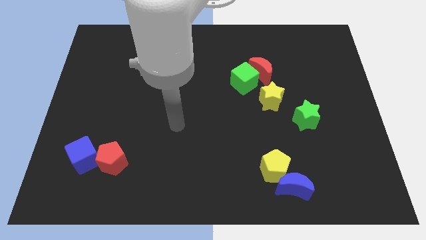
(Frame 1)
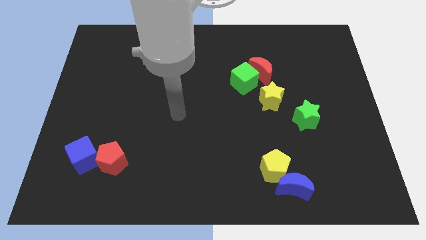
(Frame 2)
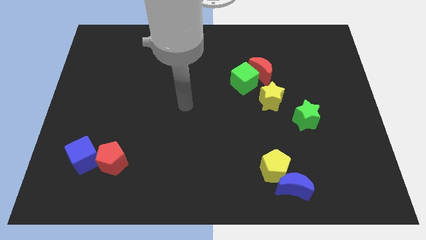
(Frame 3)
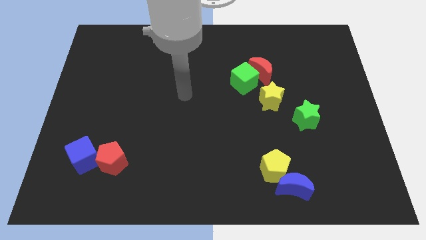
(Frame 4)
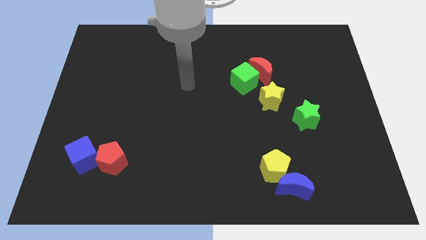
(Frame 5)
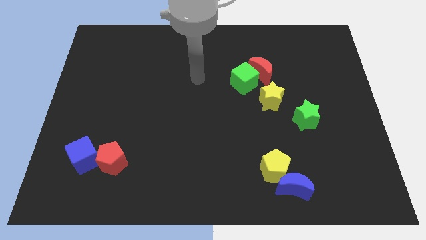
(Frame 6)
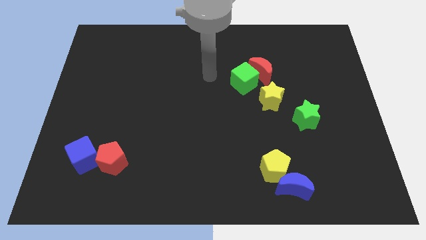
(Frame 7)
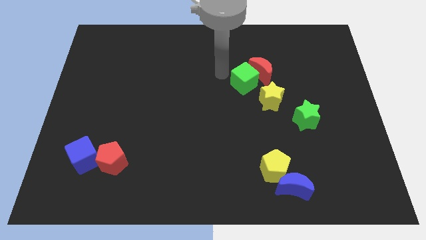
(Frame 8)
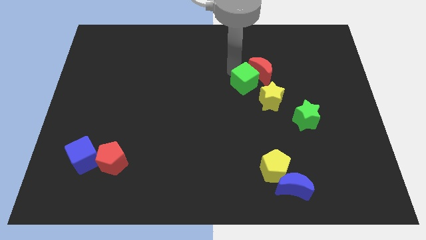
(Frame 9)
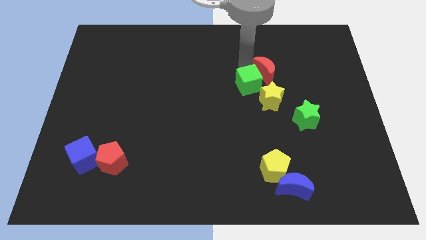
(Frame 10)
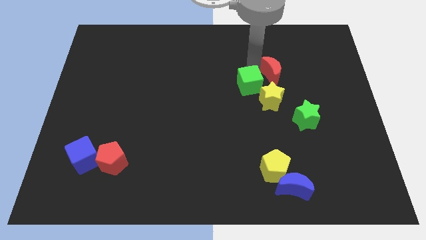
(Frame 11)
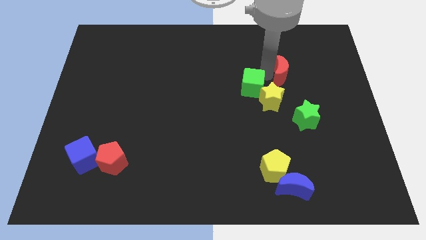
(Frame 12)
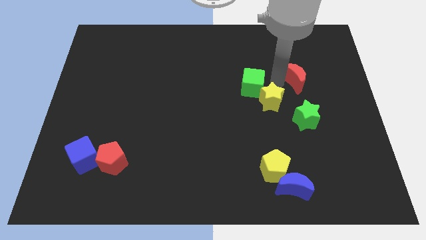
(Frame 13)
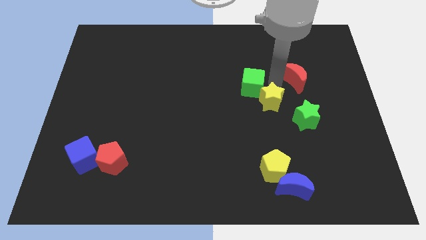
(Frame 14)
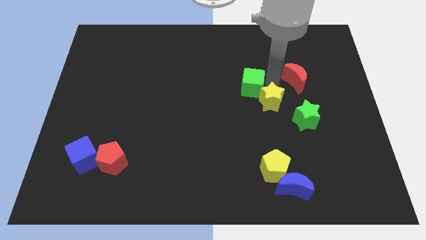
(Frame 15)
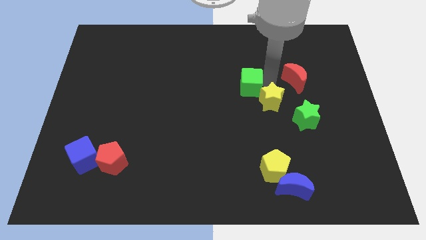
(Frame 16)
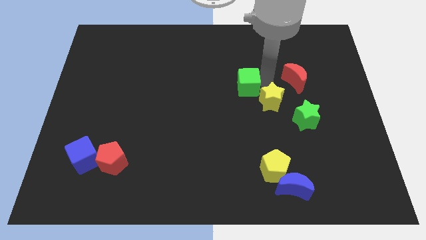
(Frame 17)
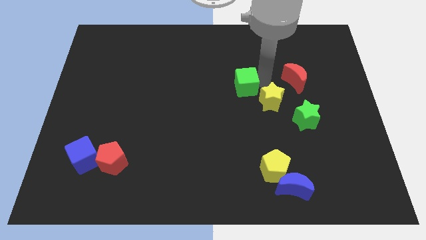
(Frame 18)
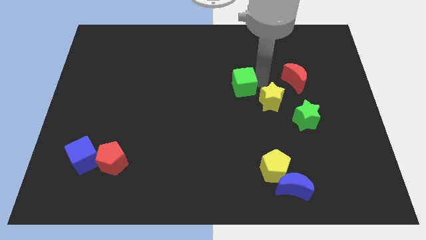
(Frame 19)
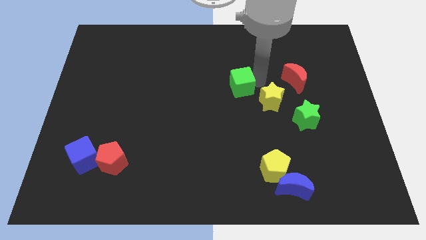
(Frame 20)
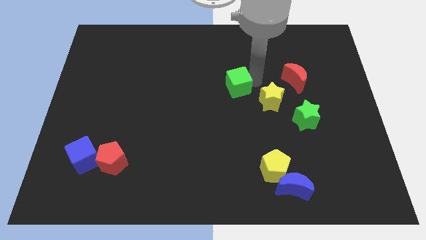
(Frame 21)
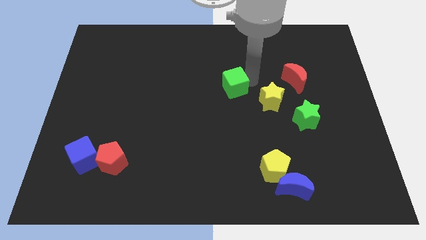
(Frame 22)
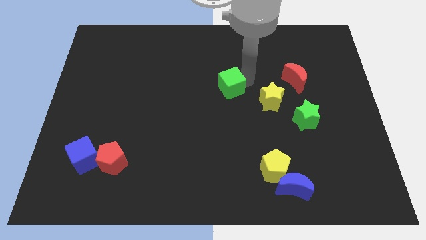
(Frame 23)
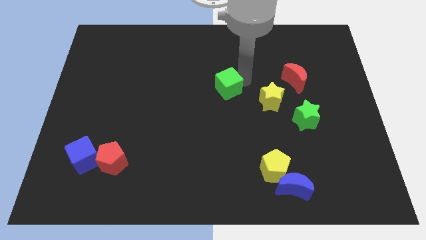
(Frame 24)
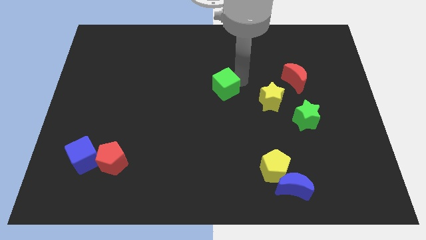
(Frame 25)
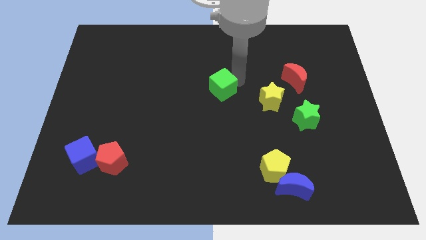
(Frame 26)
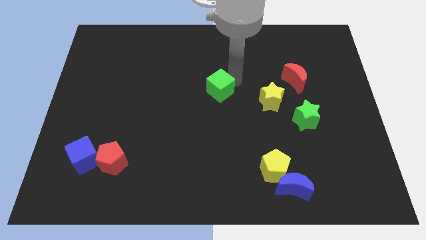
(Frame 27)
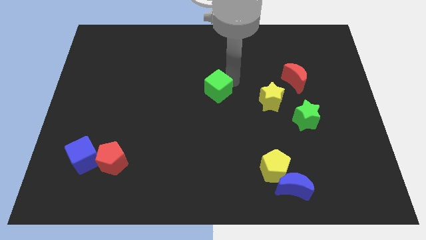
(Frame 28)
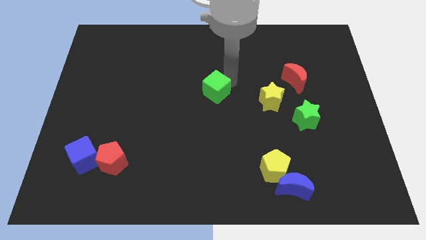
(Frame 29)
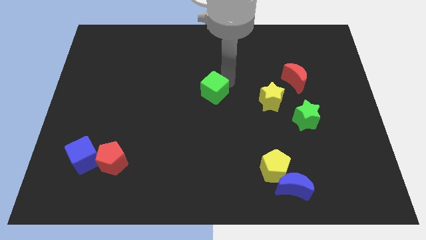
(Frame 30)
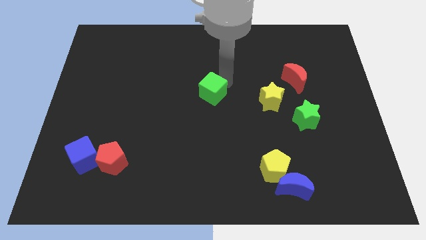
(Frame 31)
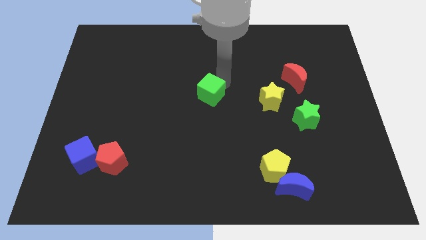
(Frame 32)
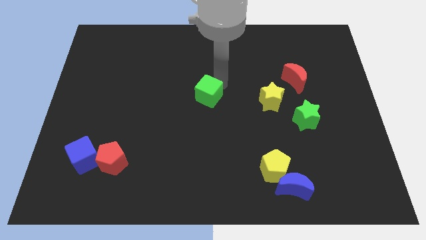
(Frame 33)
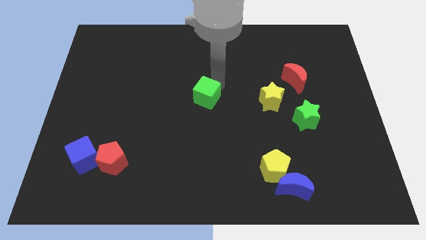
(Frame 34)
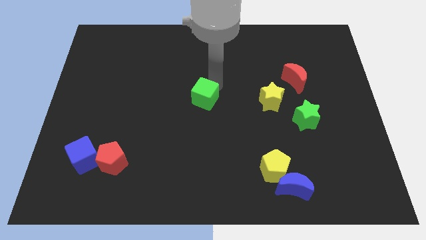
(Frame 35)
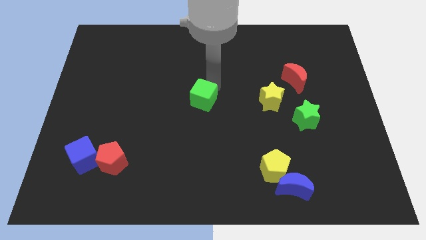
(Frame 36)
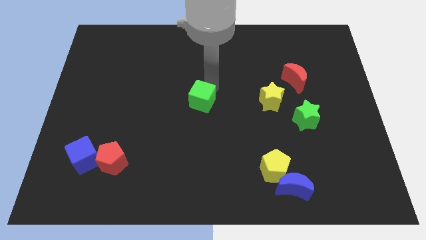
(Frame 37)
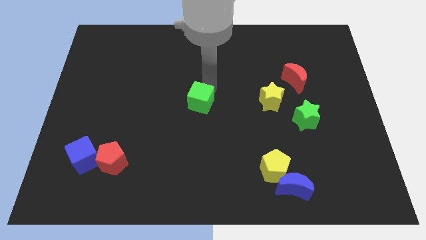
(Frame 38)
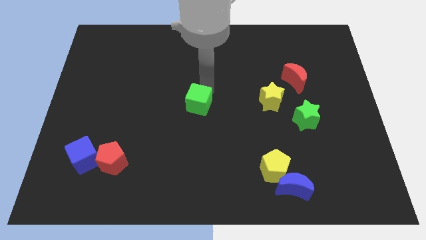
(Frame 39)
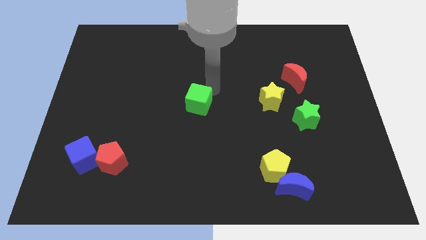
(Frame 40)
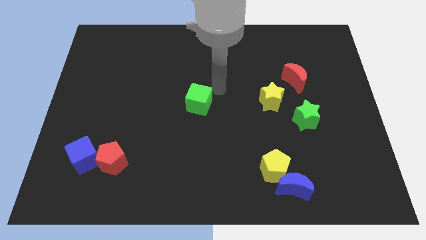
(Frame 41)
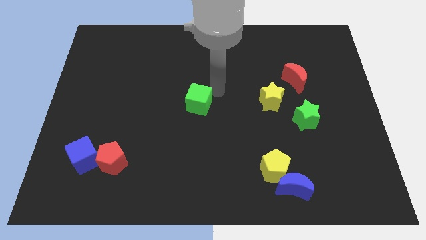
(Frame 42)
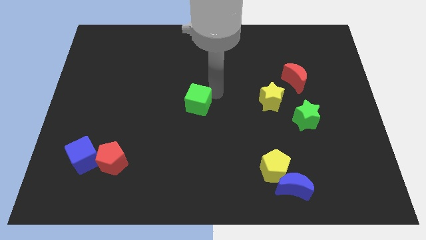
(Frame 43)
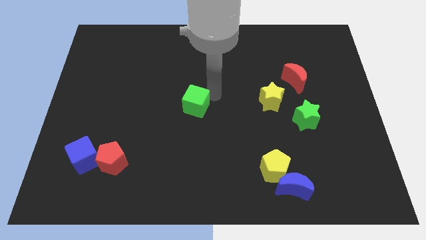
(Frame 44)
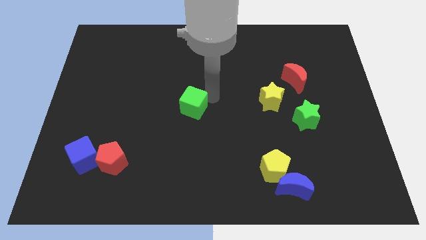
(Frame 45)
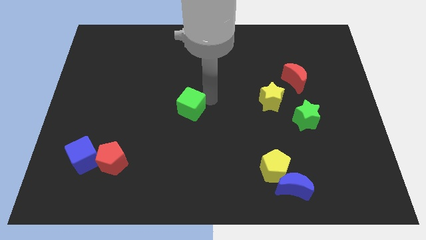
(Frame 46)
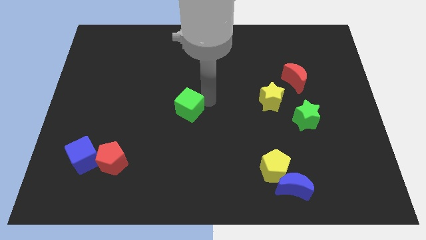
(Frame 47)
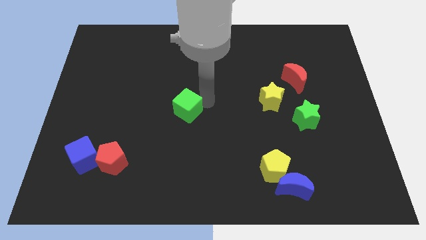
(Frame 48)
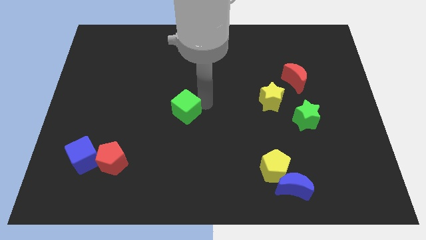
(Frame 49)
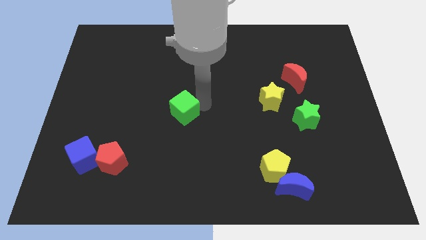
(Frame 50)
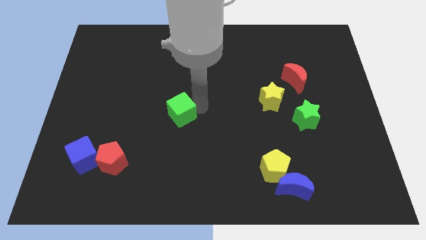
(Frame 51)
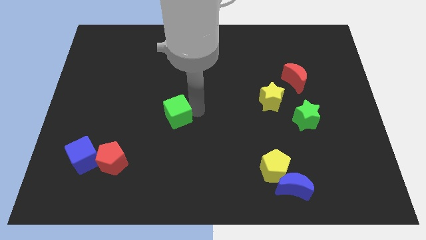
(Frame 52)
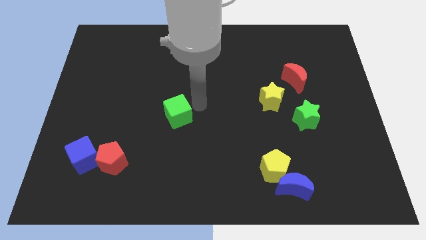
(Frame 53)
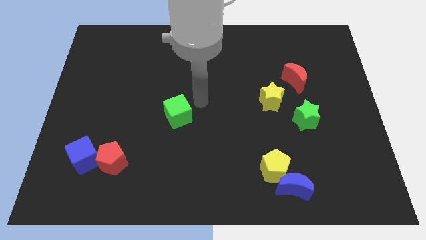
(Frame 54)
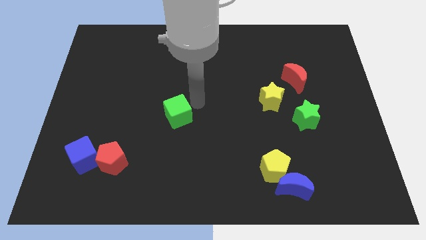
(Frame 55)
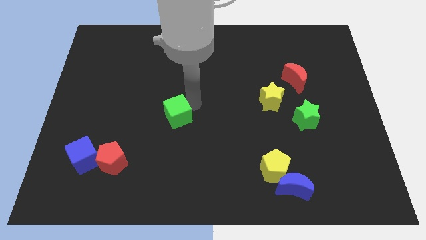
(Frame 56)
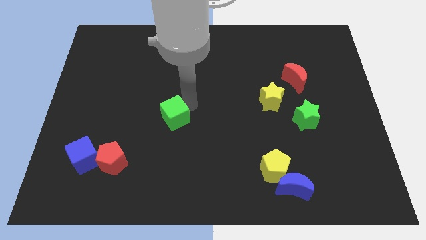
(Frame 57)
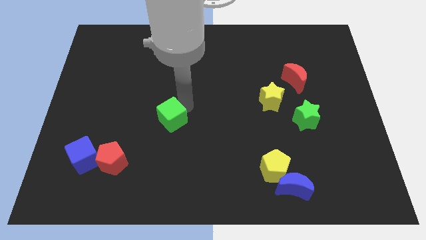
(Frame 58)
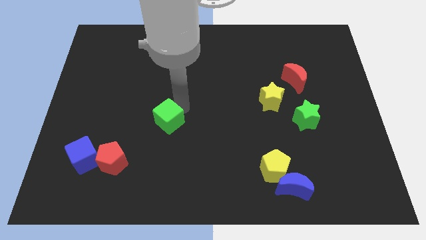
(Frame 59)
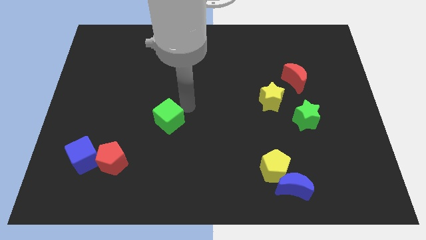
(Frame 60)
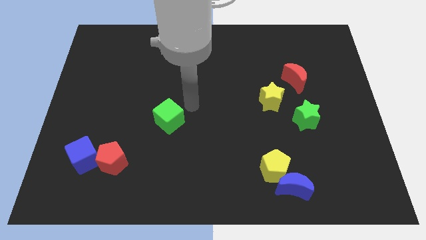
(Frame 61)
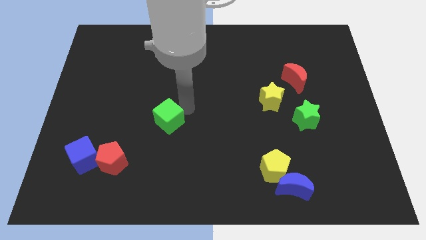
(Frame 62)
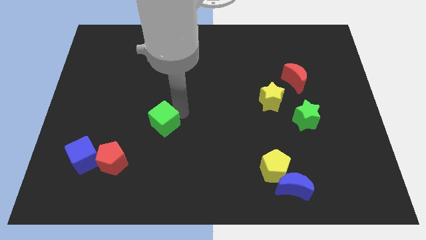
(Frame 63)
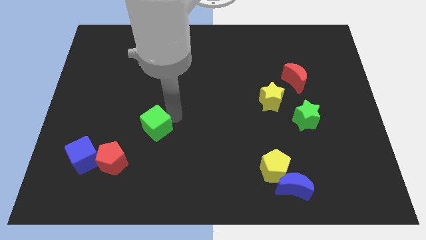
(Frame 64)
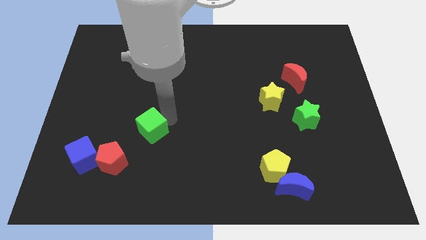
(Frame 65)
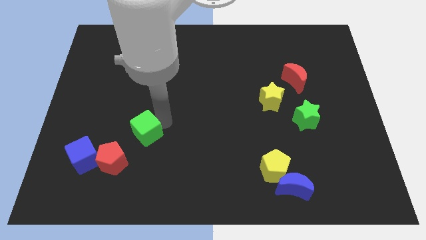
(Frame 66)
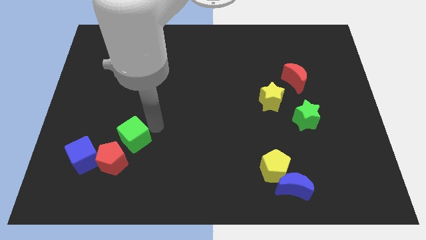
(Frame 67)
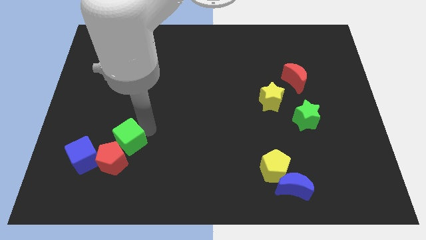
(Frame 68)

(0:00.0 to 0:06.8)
slide the green cube to the red pentagon
